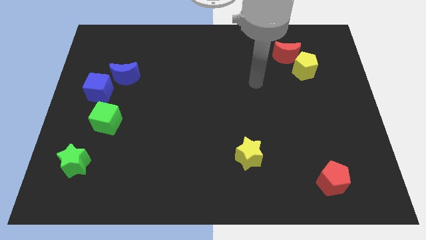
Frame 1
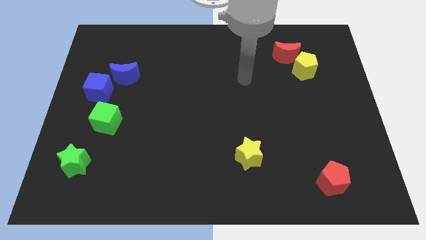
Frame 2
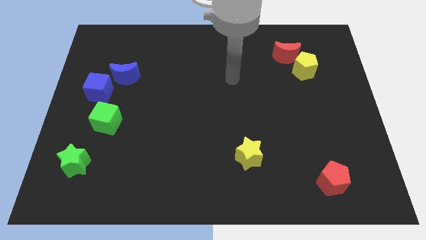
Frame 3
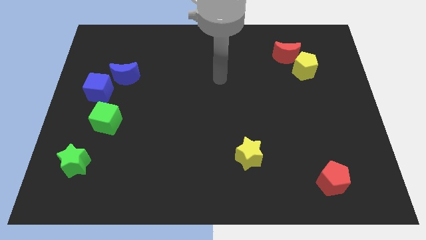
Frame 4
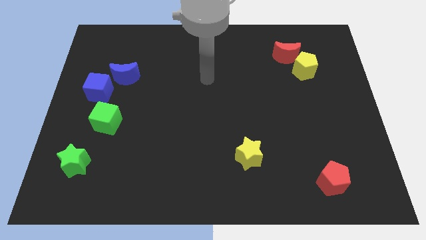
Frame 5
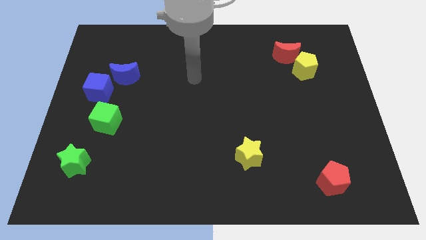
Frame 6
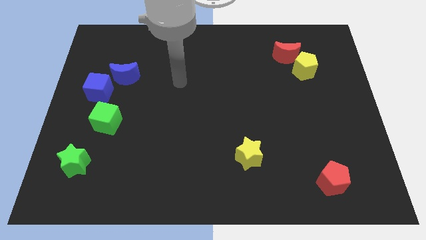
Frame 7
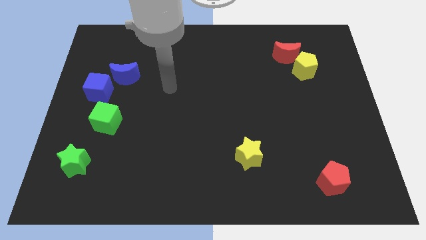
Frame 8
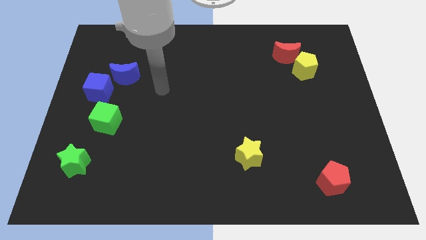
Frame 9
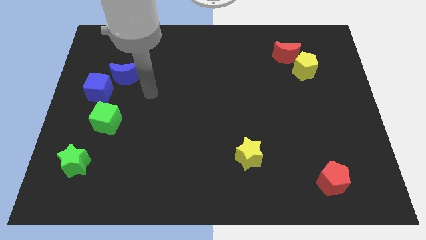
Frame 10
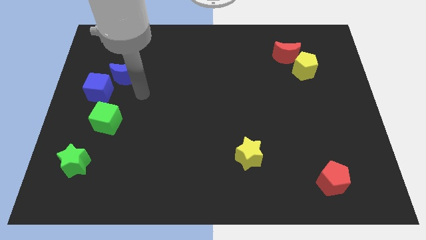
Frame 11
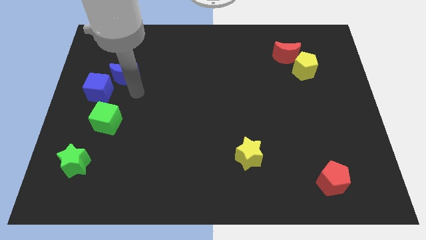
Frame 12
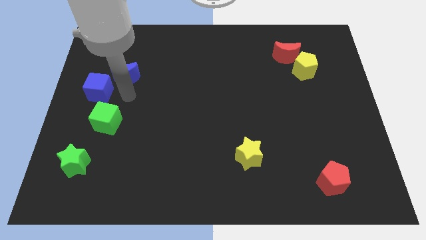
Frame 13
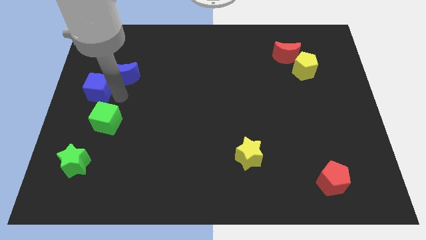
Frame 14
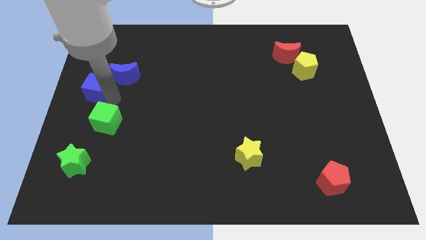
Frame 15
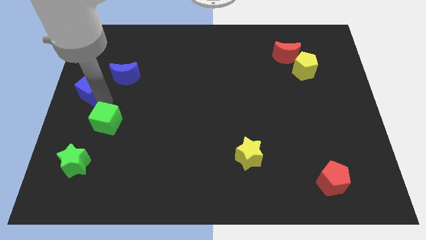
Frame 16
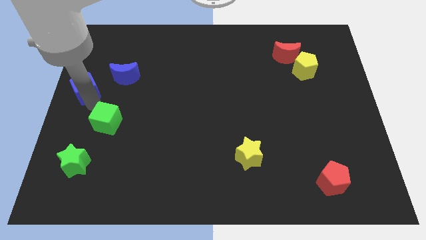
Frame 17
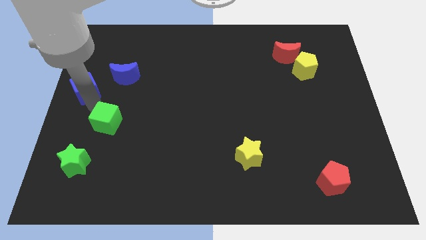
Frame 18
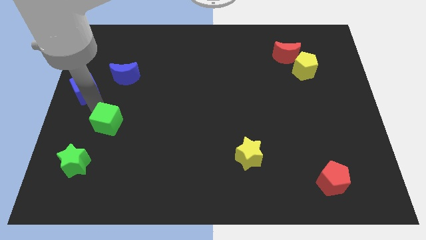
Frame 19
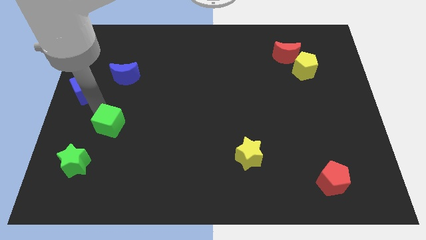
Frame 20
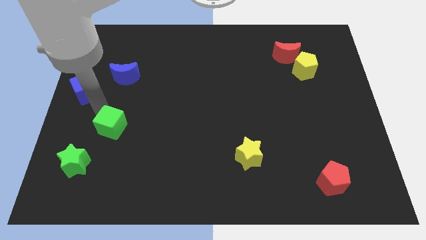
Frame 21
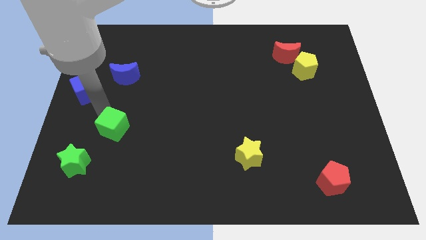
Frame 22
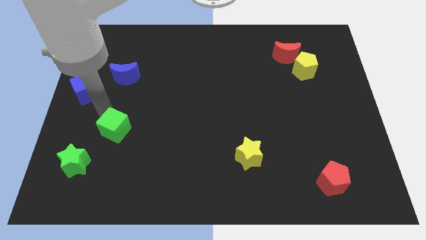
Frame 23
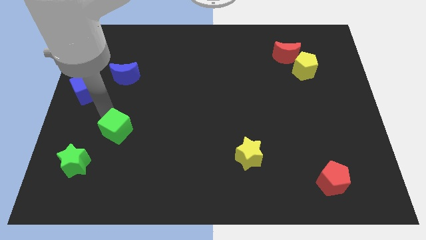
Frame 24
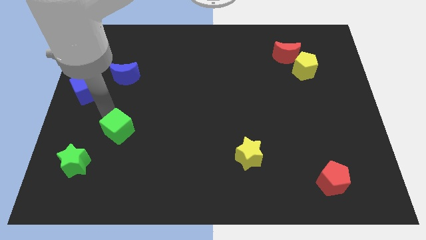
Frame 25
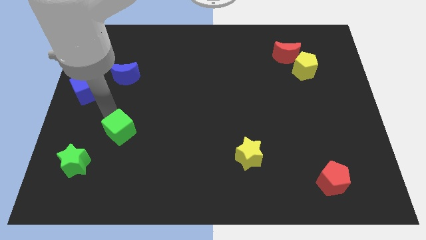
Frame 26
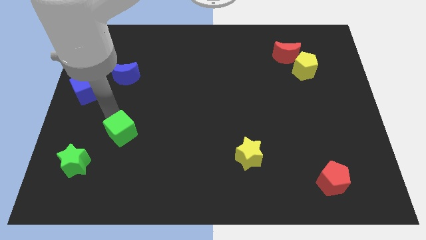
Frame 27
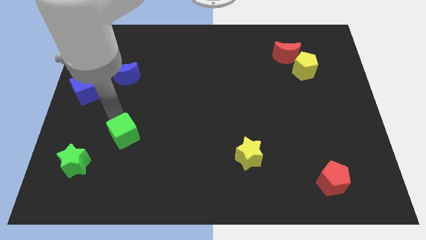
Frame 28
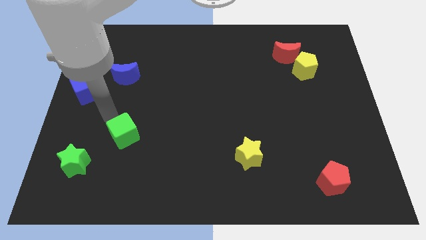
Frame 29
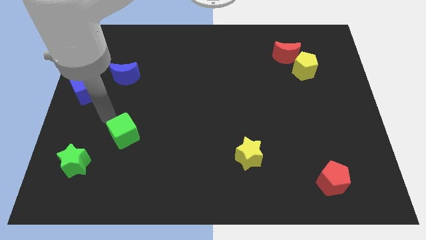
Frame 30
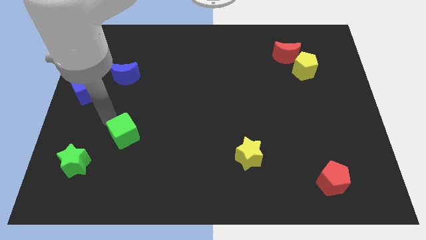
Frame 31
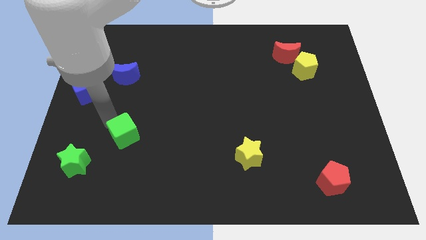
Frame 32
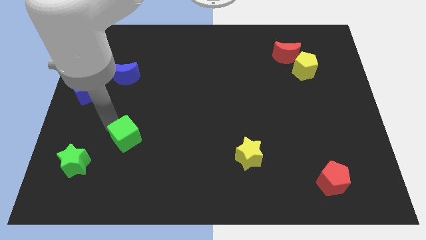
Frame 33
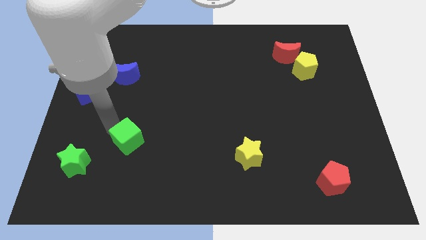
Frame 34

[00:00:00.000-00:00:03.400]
slightly slide the green cube down and to the right diagonally

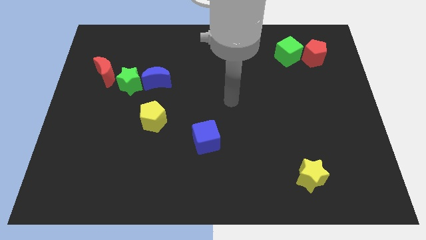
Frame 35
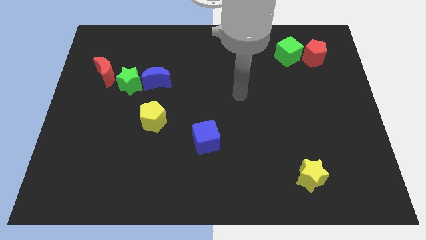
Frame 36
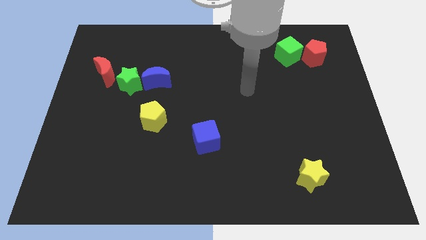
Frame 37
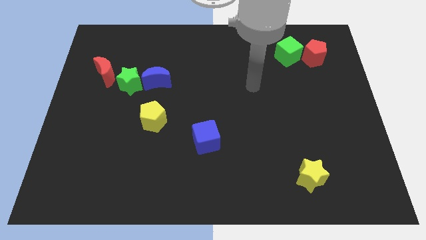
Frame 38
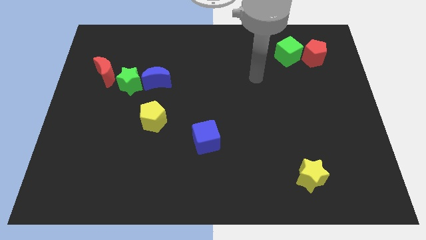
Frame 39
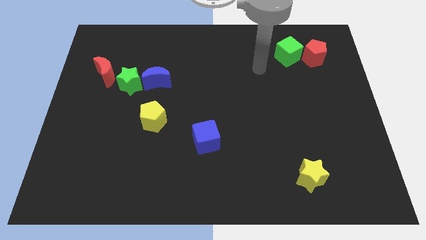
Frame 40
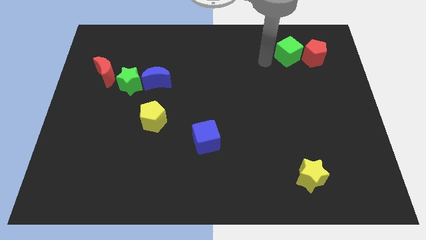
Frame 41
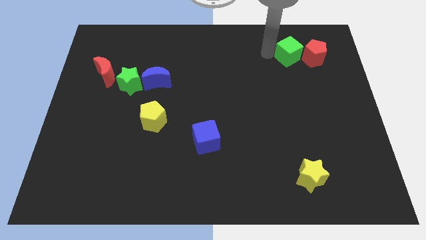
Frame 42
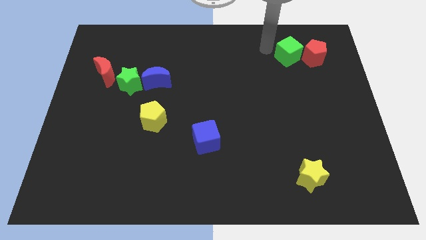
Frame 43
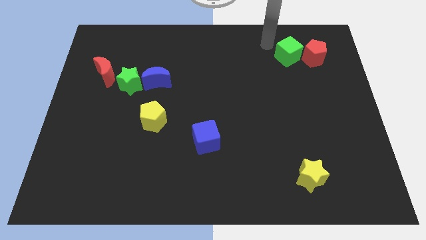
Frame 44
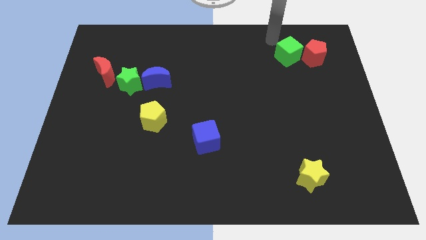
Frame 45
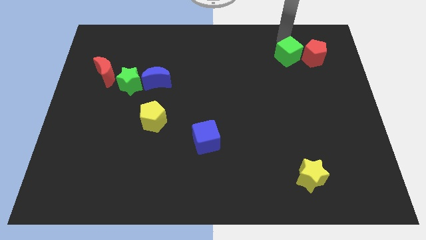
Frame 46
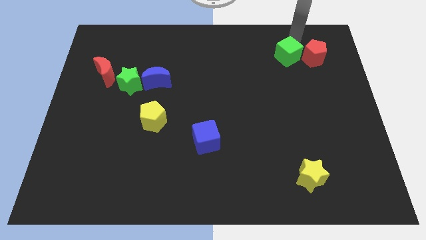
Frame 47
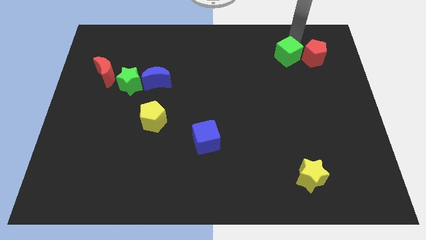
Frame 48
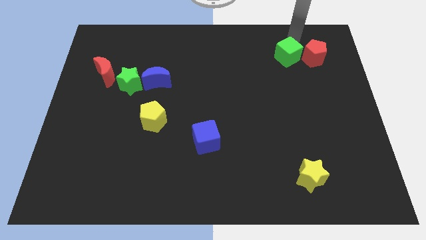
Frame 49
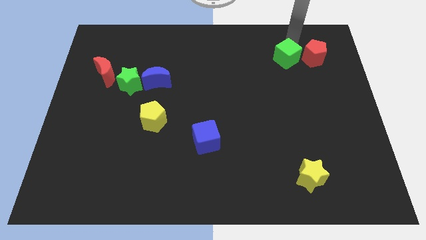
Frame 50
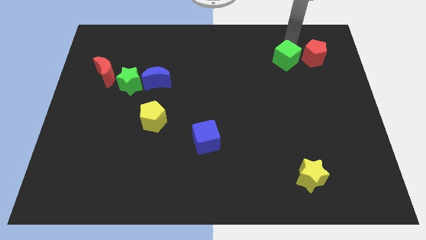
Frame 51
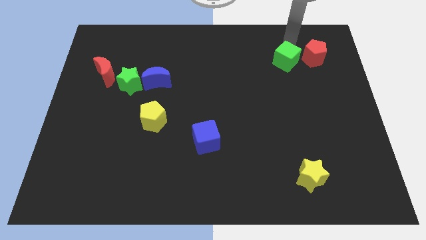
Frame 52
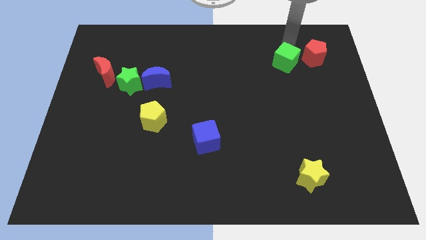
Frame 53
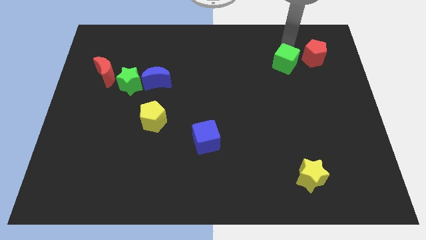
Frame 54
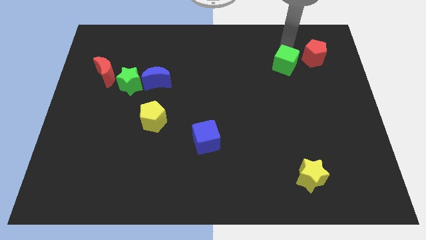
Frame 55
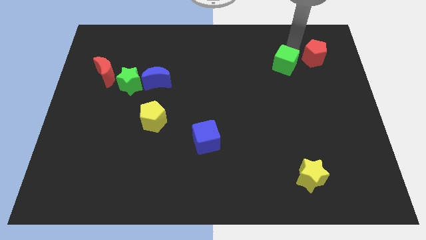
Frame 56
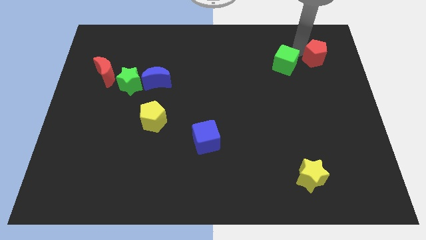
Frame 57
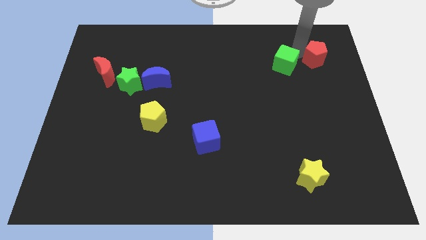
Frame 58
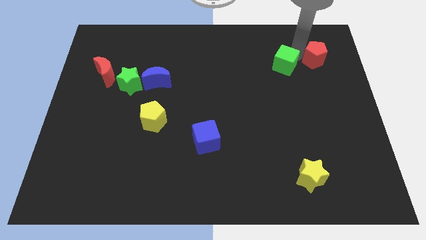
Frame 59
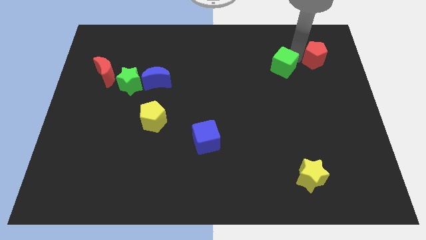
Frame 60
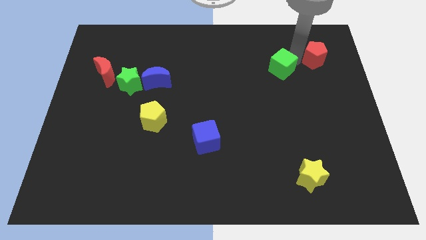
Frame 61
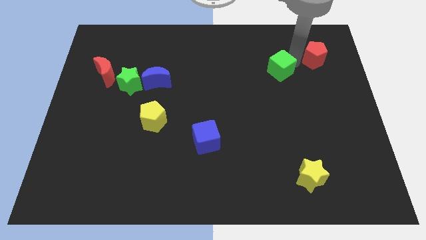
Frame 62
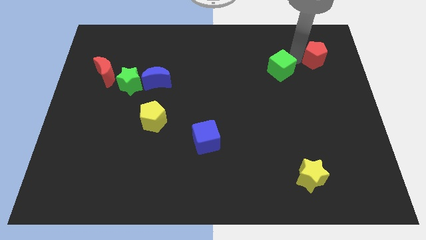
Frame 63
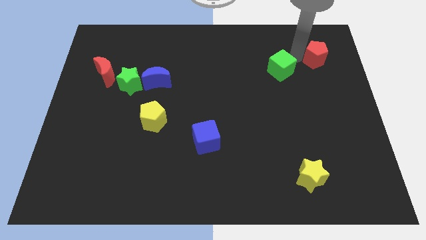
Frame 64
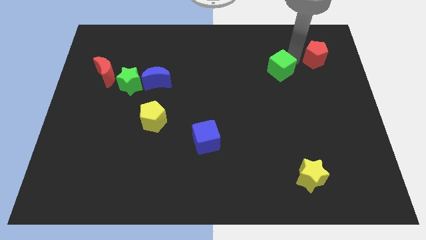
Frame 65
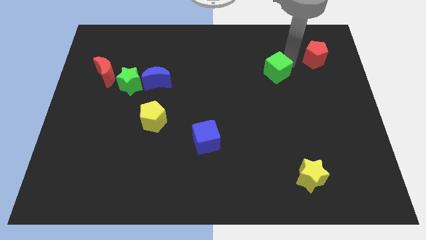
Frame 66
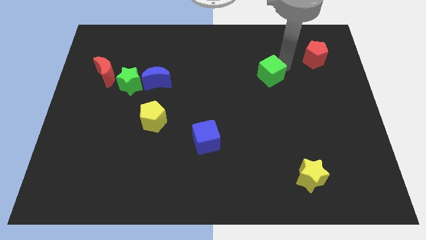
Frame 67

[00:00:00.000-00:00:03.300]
push the green cube downwards and left a little bit

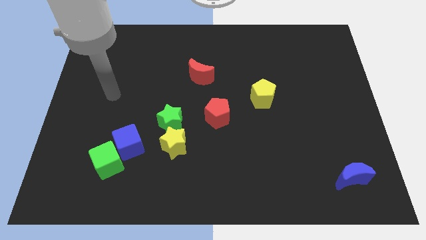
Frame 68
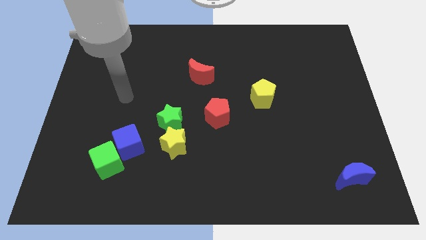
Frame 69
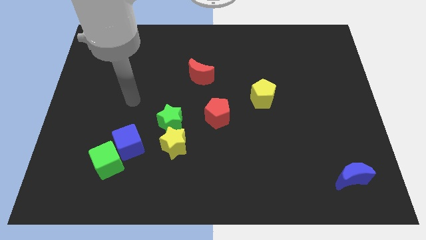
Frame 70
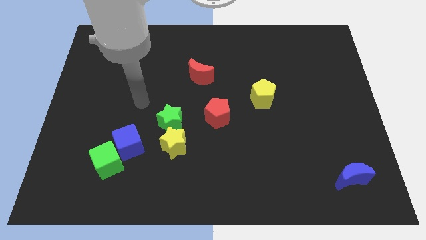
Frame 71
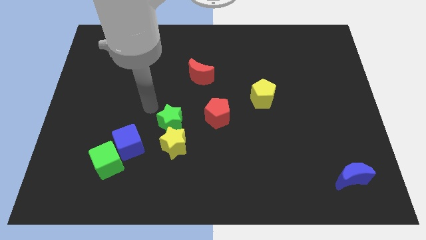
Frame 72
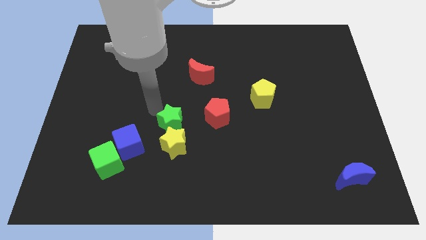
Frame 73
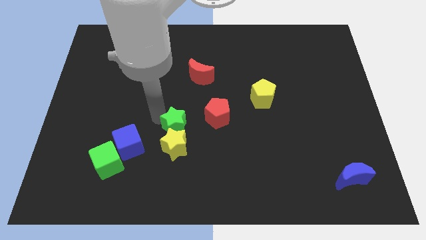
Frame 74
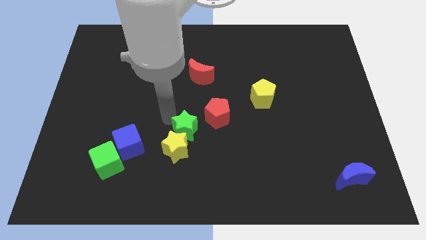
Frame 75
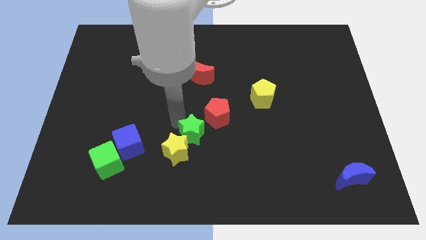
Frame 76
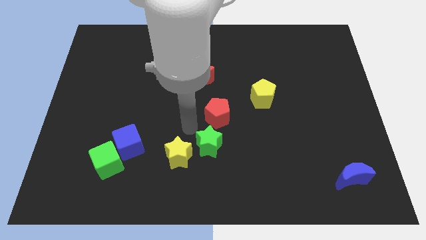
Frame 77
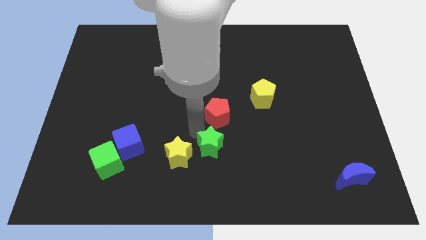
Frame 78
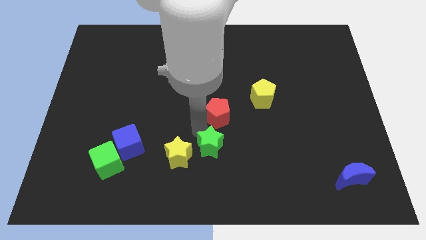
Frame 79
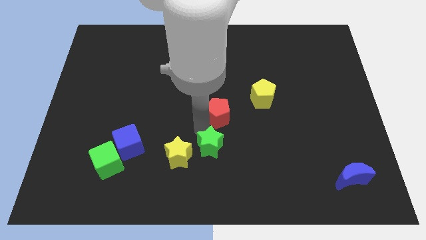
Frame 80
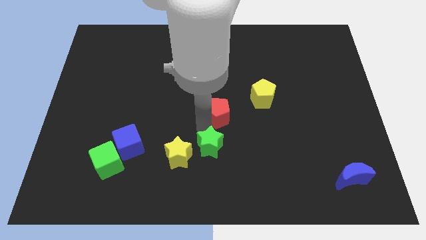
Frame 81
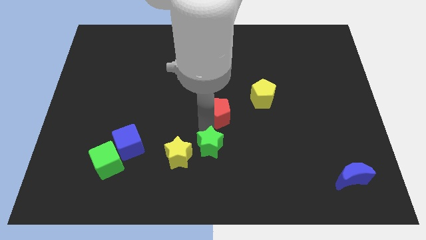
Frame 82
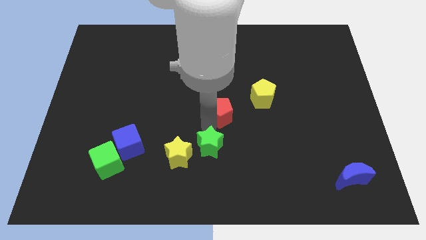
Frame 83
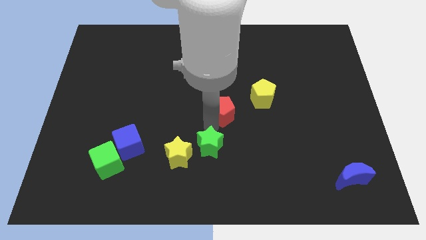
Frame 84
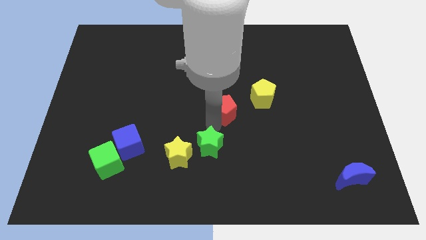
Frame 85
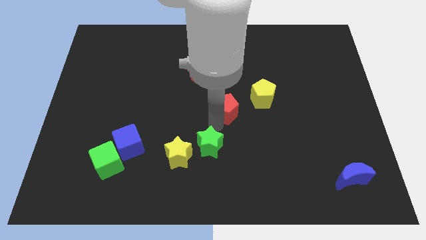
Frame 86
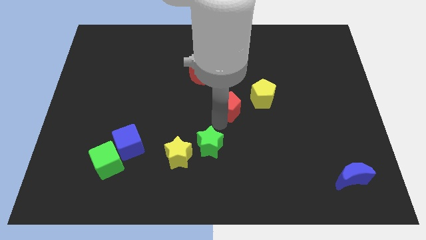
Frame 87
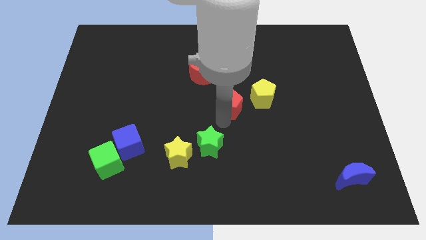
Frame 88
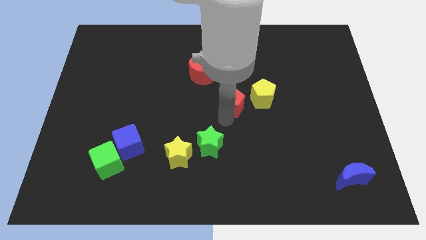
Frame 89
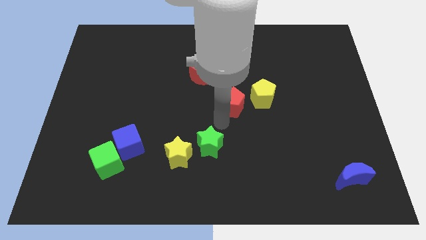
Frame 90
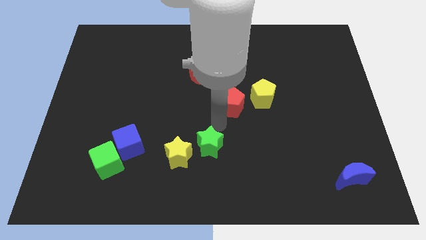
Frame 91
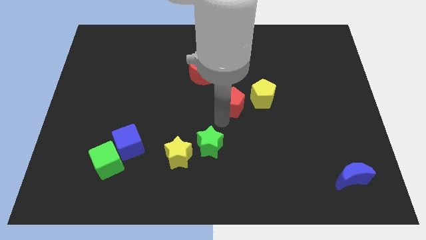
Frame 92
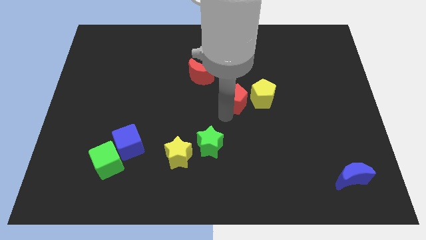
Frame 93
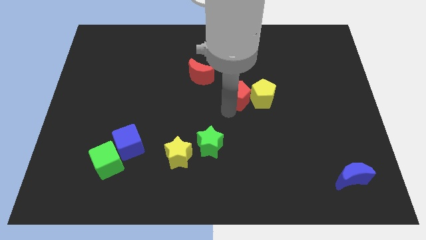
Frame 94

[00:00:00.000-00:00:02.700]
move the red pentagon somewhat upwards and right diagonally
